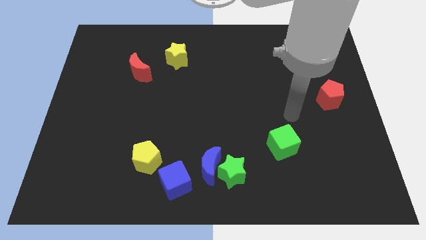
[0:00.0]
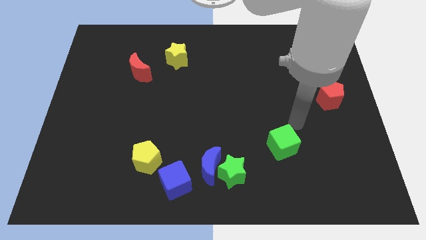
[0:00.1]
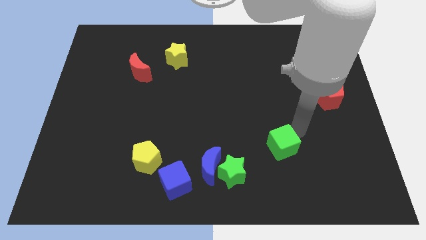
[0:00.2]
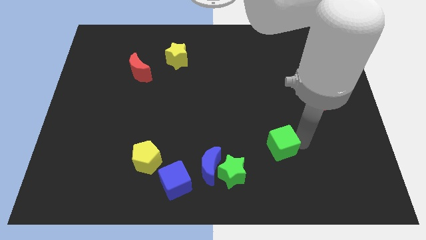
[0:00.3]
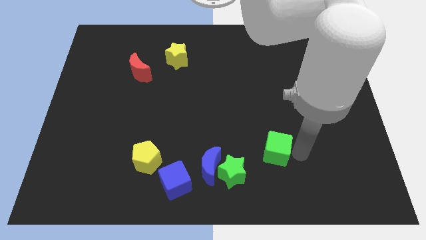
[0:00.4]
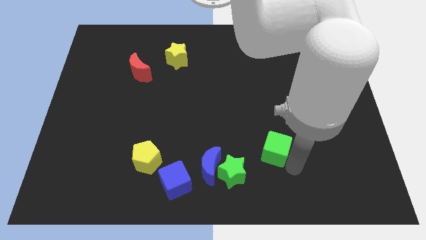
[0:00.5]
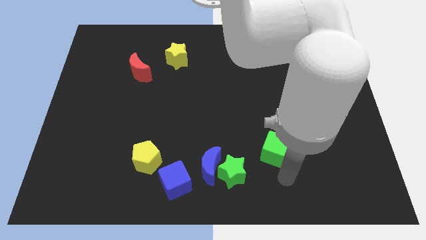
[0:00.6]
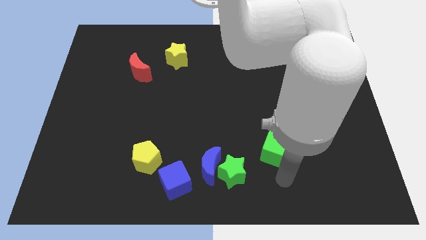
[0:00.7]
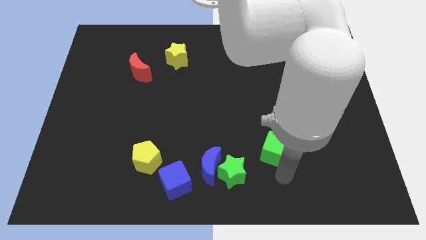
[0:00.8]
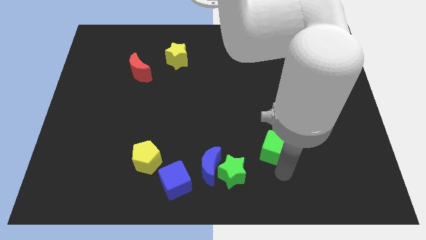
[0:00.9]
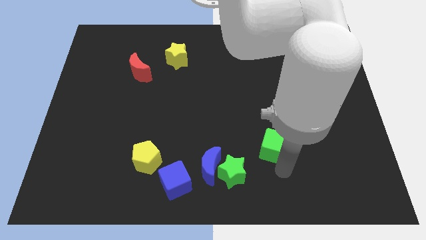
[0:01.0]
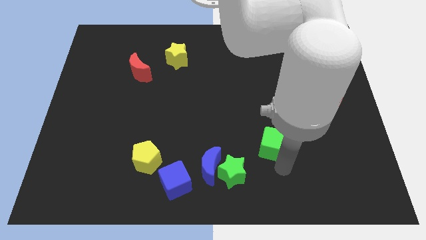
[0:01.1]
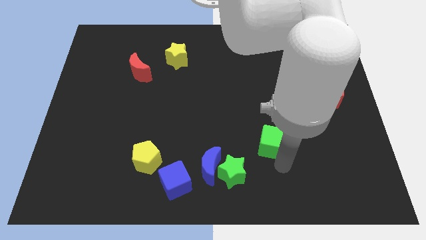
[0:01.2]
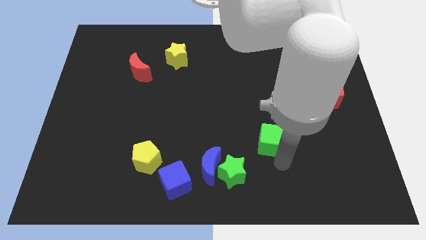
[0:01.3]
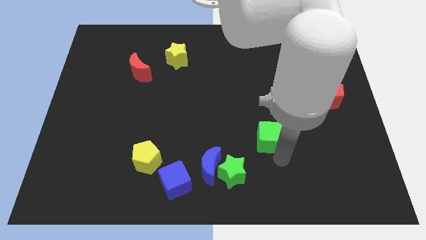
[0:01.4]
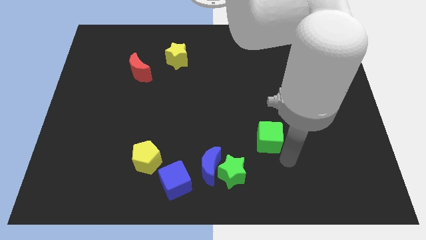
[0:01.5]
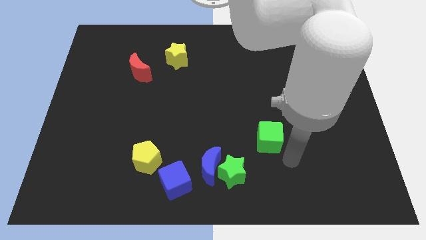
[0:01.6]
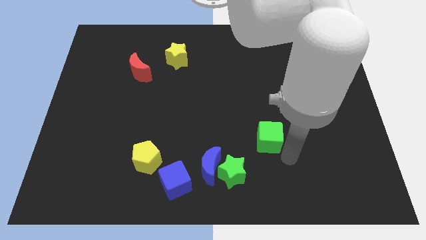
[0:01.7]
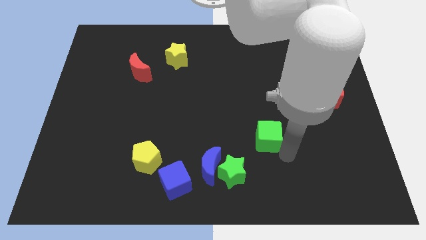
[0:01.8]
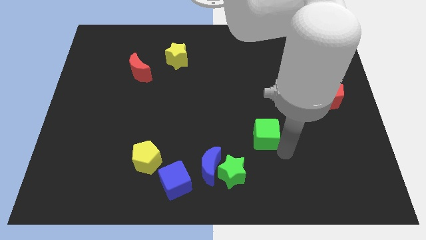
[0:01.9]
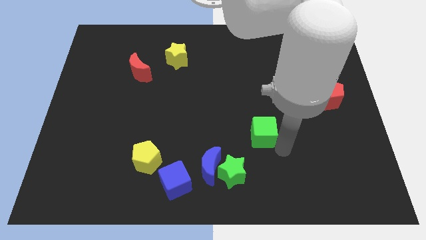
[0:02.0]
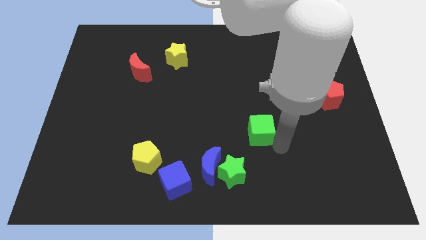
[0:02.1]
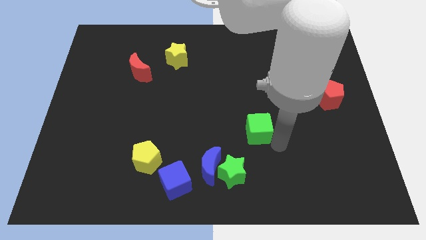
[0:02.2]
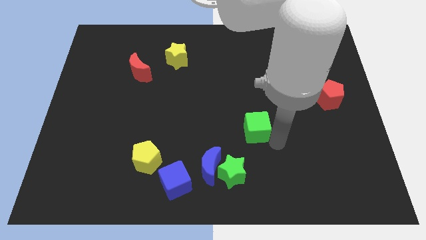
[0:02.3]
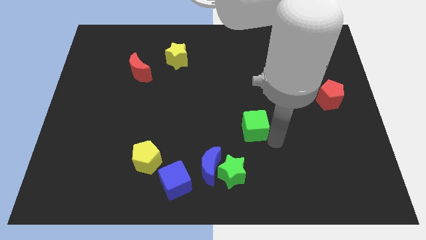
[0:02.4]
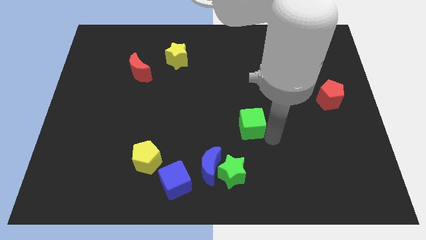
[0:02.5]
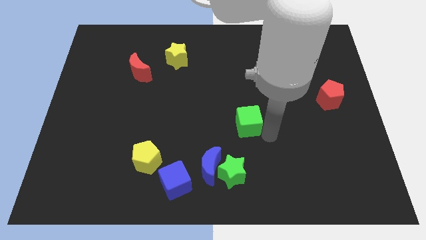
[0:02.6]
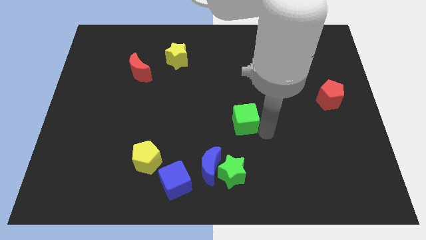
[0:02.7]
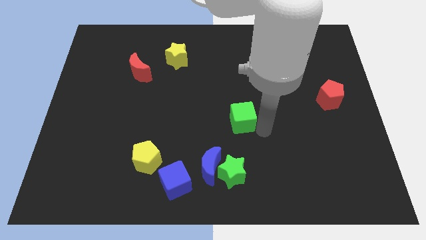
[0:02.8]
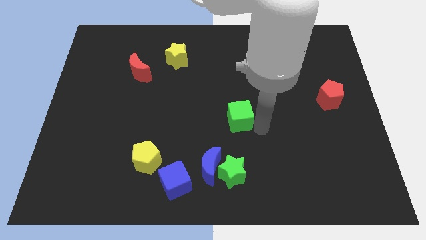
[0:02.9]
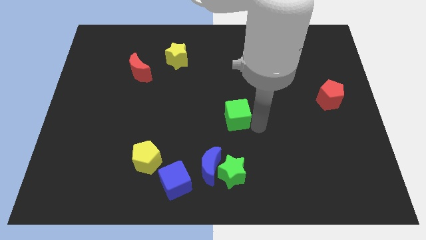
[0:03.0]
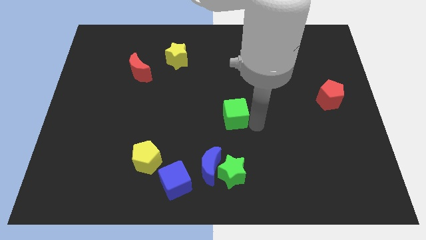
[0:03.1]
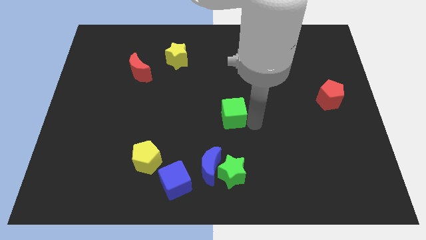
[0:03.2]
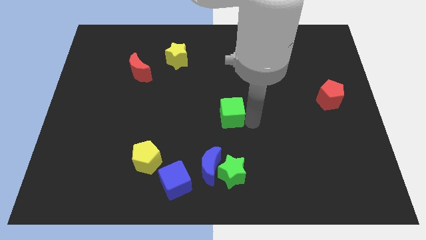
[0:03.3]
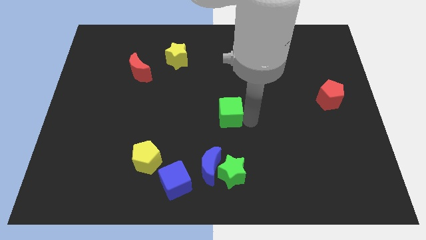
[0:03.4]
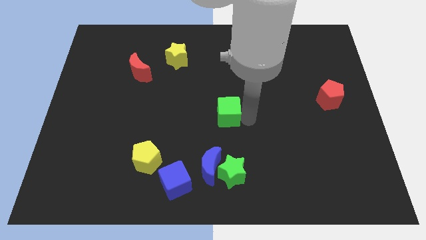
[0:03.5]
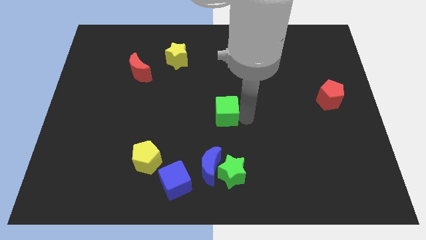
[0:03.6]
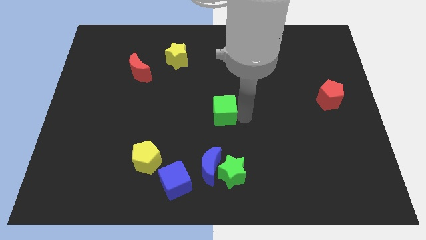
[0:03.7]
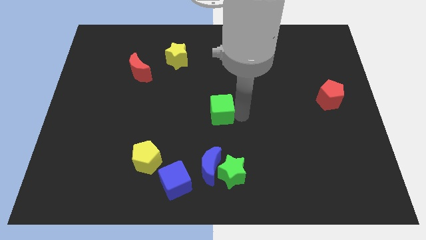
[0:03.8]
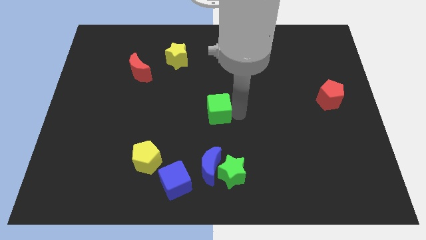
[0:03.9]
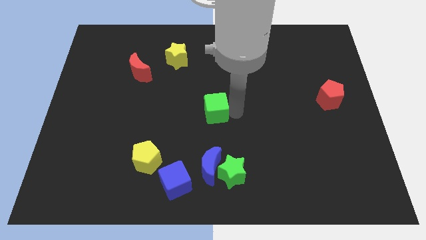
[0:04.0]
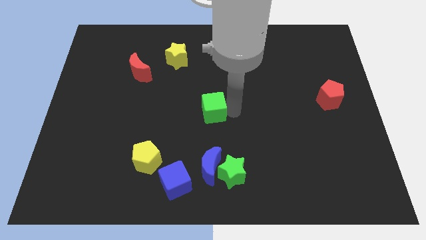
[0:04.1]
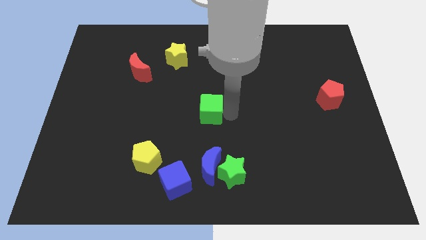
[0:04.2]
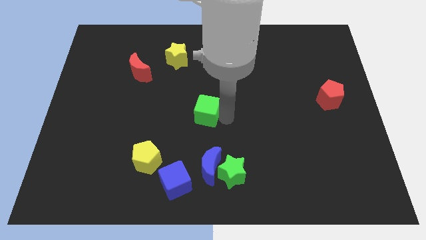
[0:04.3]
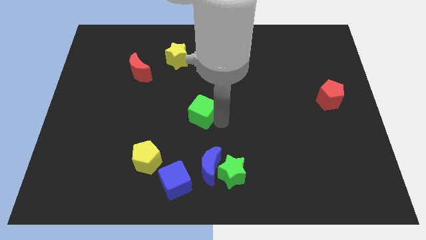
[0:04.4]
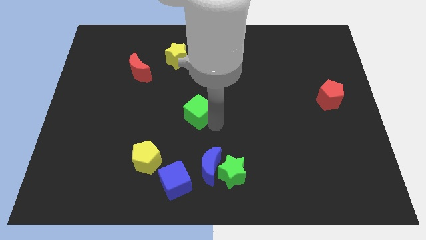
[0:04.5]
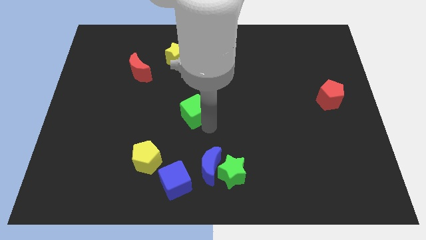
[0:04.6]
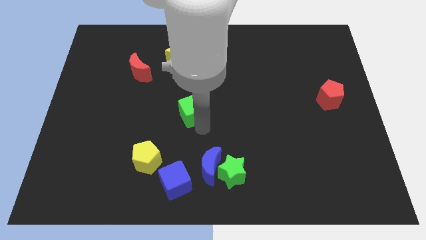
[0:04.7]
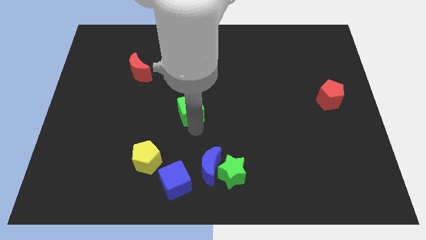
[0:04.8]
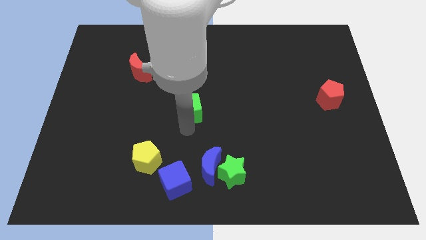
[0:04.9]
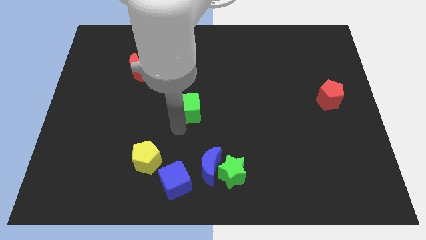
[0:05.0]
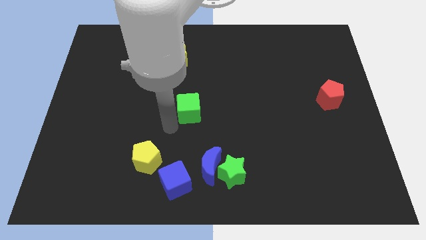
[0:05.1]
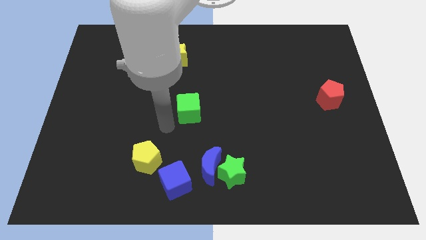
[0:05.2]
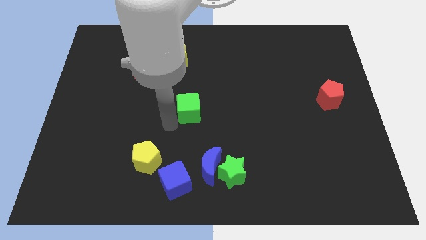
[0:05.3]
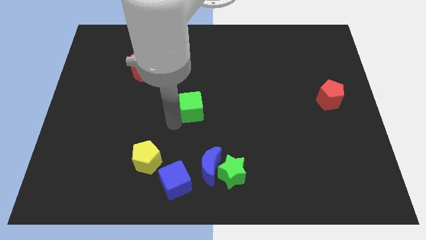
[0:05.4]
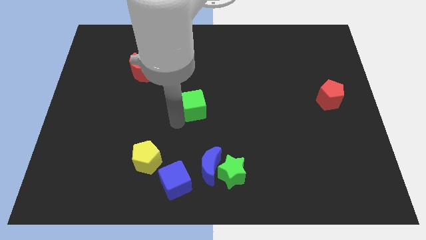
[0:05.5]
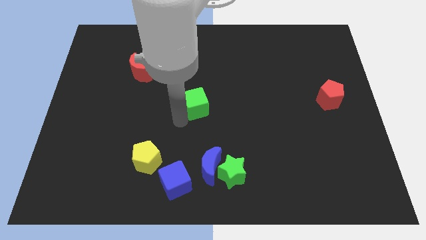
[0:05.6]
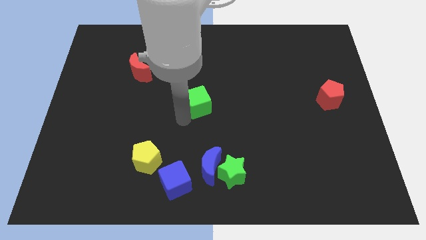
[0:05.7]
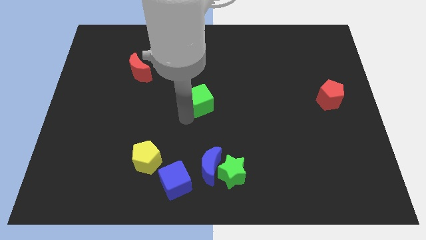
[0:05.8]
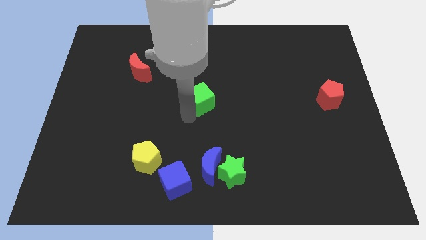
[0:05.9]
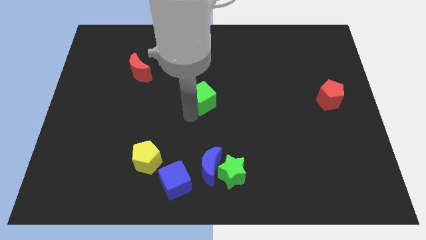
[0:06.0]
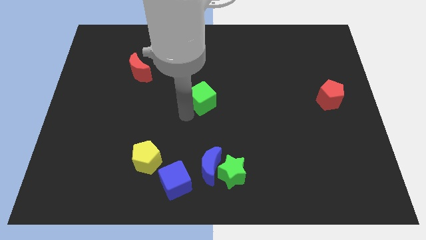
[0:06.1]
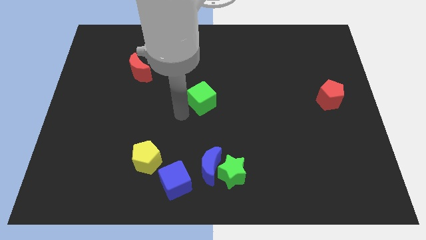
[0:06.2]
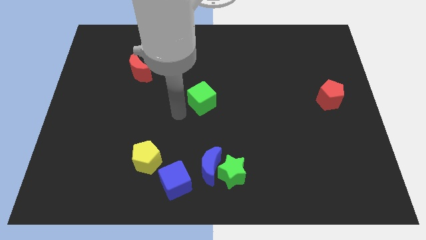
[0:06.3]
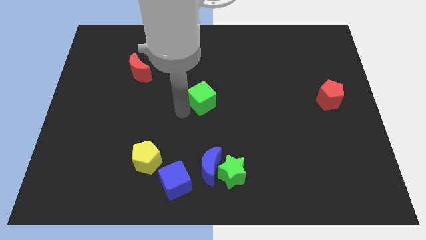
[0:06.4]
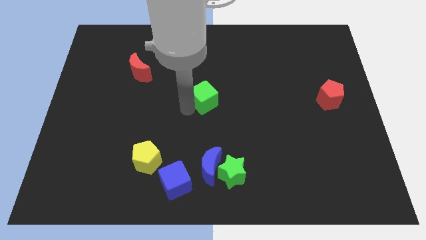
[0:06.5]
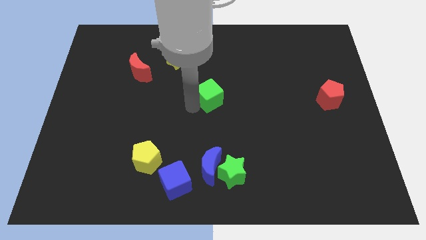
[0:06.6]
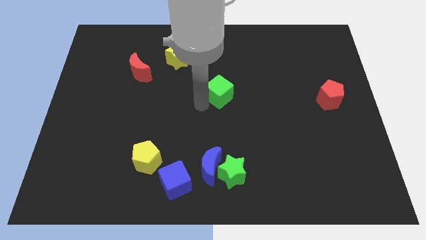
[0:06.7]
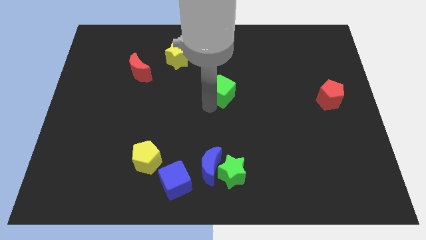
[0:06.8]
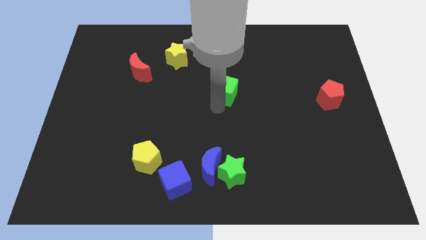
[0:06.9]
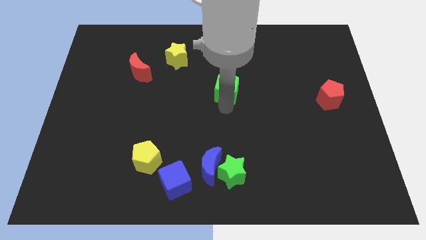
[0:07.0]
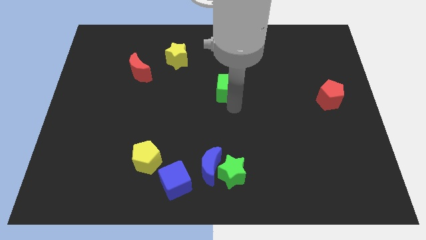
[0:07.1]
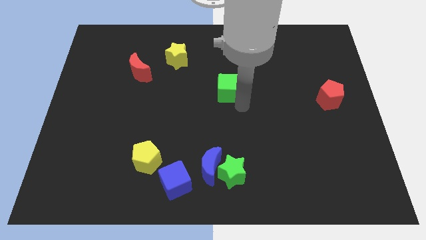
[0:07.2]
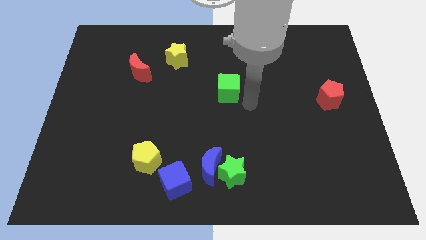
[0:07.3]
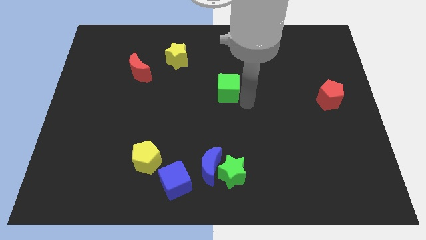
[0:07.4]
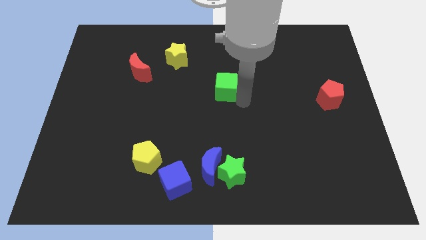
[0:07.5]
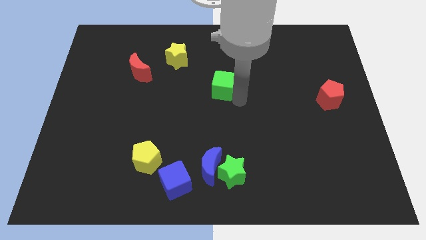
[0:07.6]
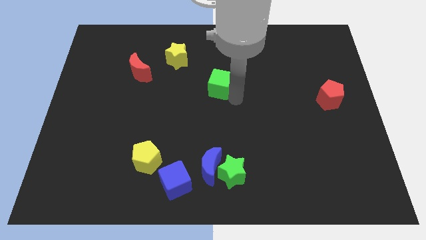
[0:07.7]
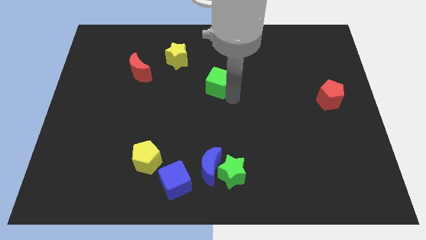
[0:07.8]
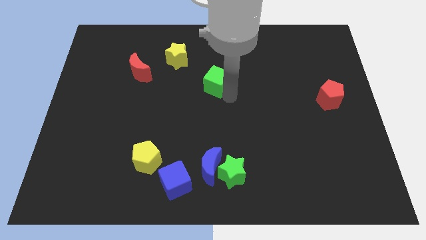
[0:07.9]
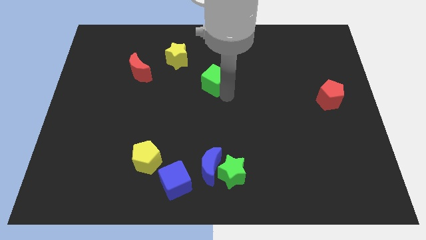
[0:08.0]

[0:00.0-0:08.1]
slide the green cube diagonally down and to the right of the yellow star
